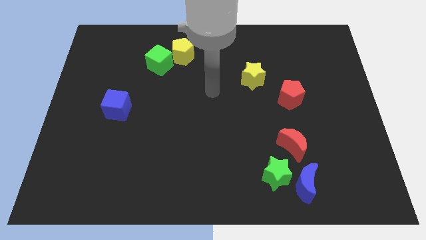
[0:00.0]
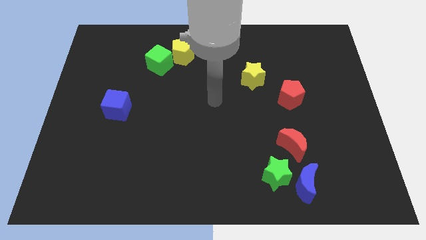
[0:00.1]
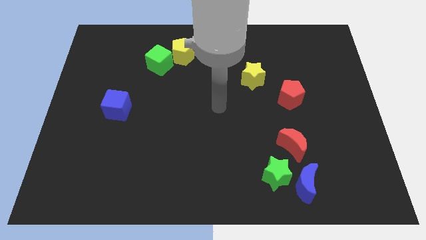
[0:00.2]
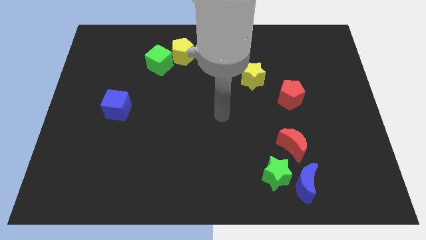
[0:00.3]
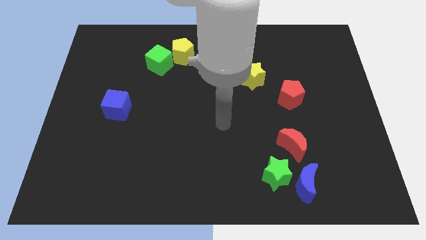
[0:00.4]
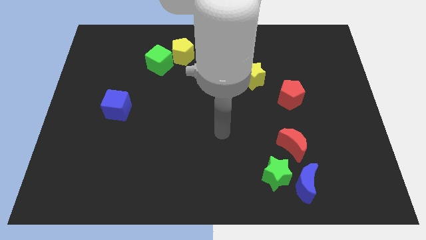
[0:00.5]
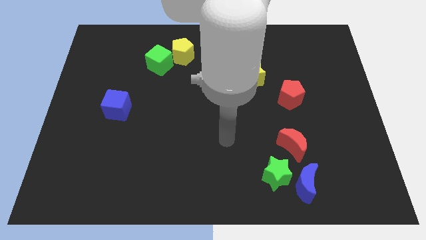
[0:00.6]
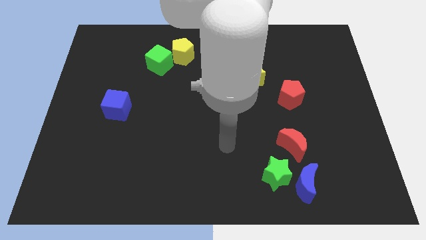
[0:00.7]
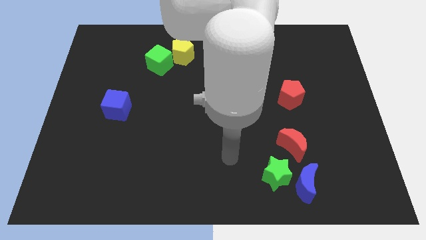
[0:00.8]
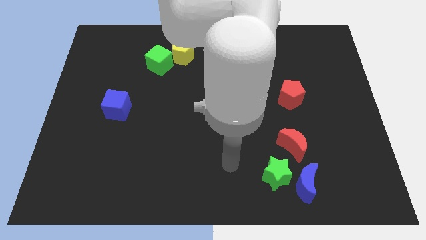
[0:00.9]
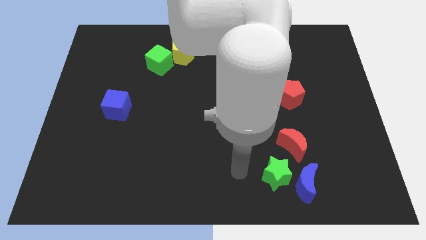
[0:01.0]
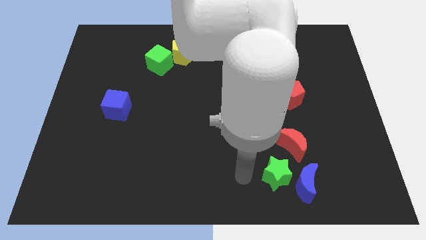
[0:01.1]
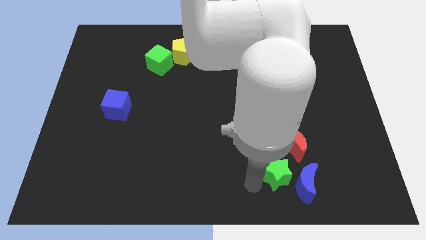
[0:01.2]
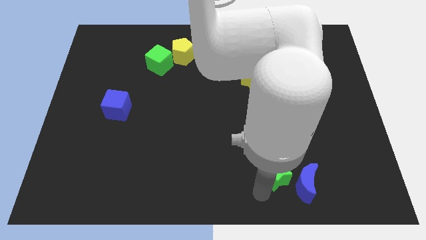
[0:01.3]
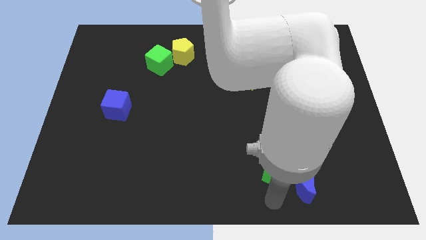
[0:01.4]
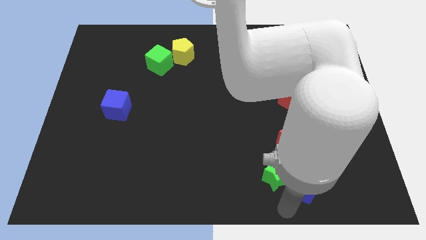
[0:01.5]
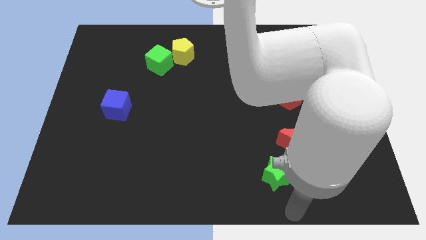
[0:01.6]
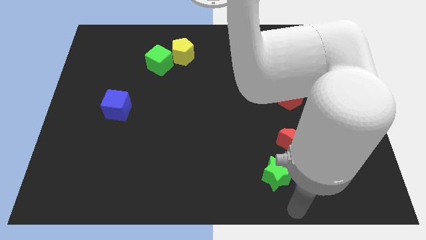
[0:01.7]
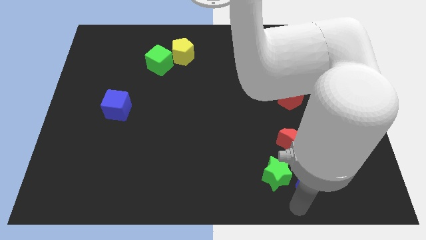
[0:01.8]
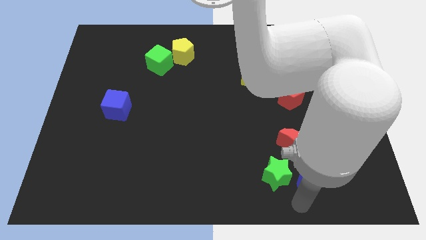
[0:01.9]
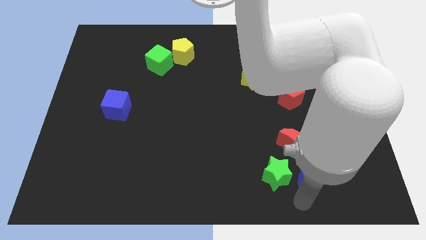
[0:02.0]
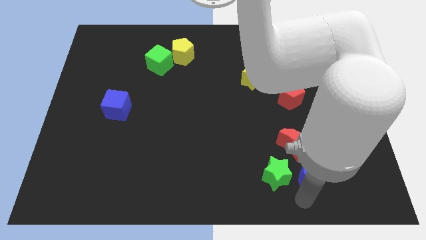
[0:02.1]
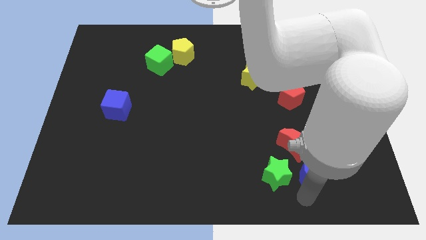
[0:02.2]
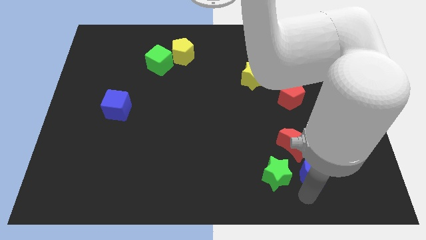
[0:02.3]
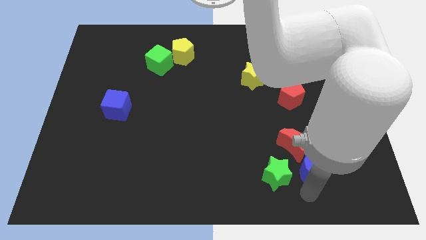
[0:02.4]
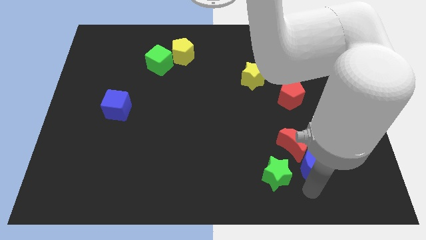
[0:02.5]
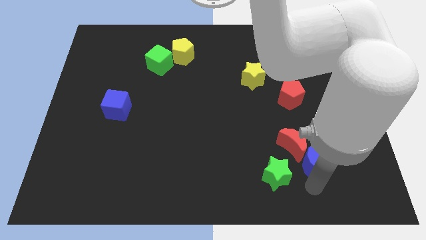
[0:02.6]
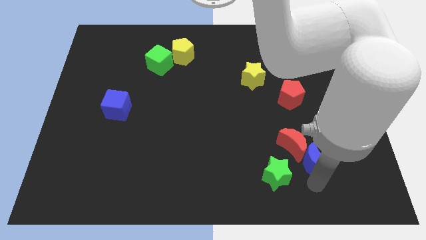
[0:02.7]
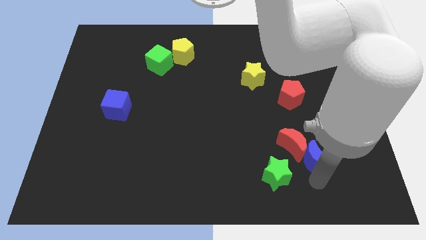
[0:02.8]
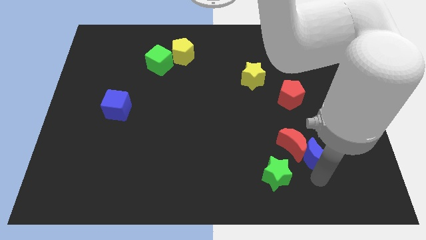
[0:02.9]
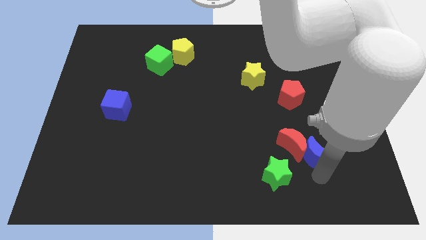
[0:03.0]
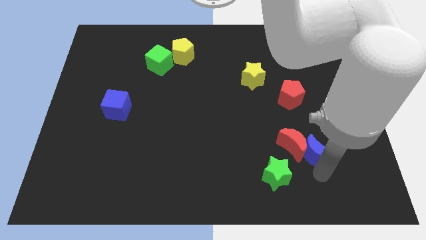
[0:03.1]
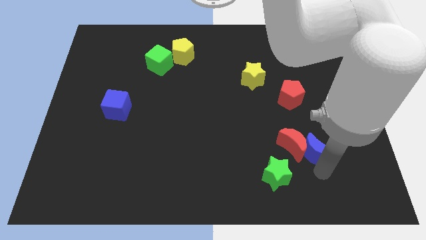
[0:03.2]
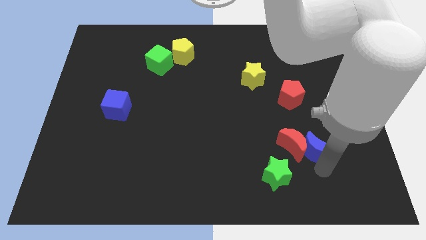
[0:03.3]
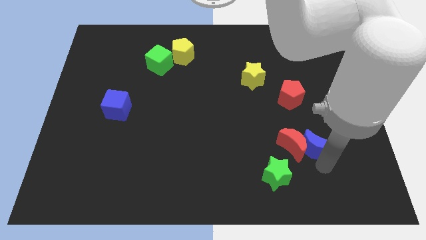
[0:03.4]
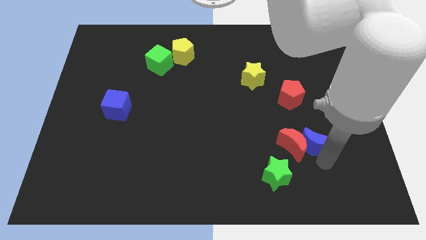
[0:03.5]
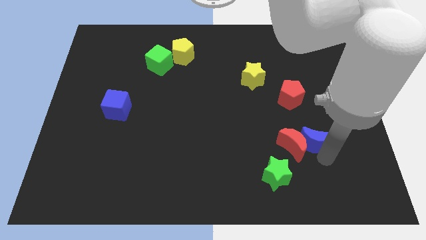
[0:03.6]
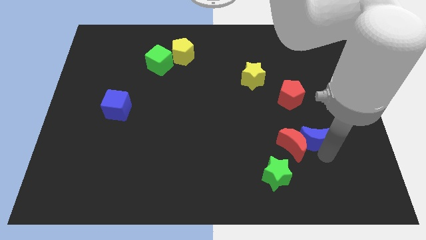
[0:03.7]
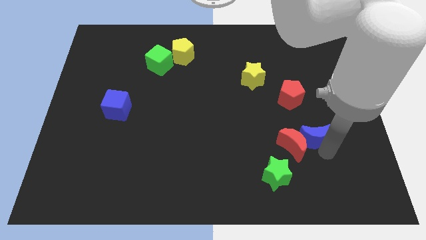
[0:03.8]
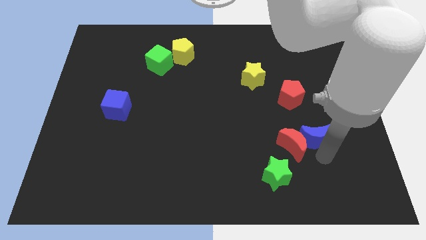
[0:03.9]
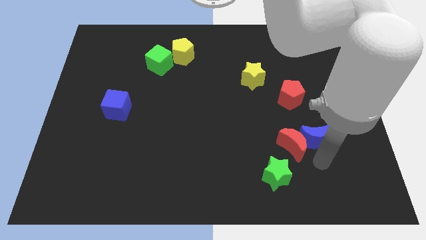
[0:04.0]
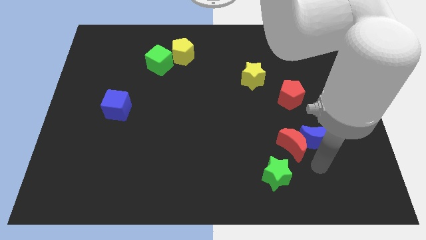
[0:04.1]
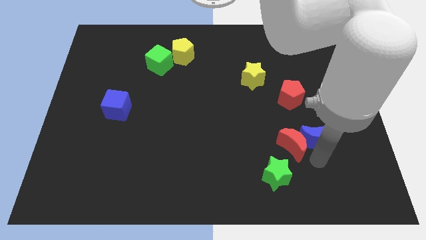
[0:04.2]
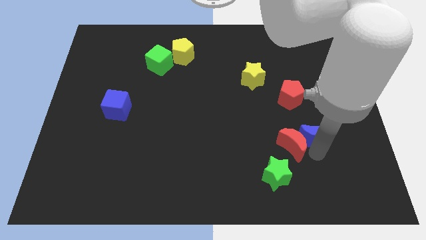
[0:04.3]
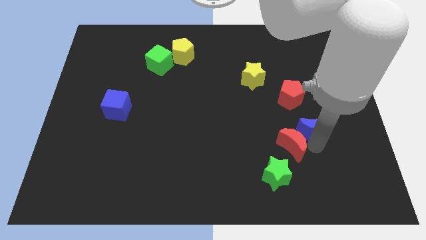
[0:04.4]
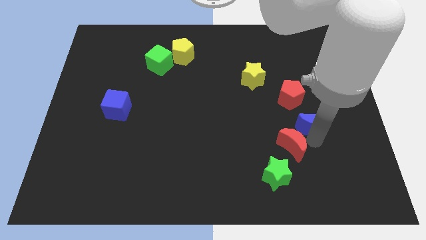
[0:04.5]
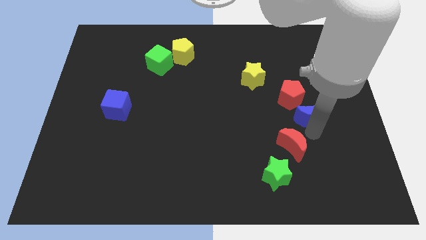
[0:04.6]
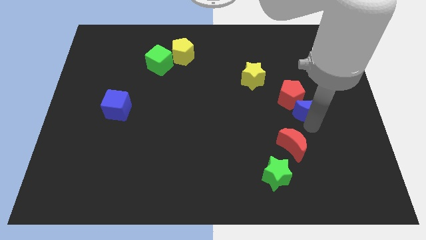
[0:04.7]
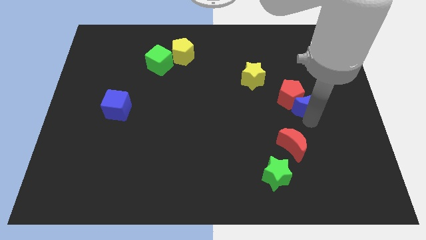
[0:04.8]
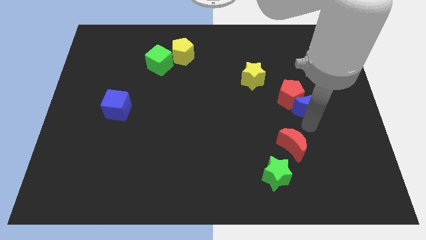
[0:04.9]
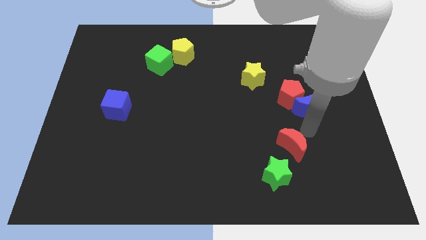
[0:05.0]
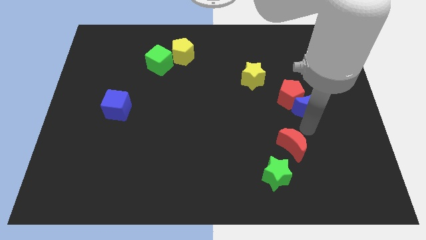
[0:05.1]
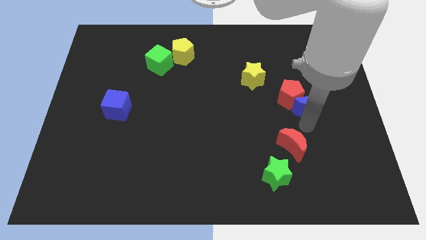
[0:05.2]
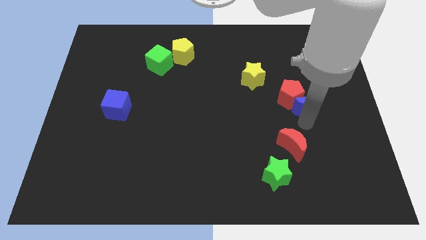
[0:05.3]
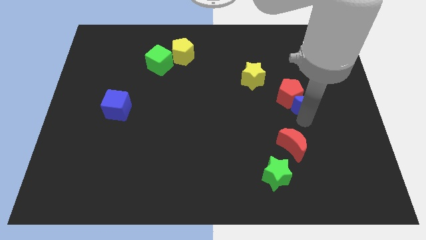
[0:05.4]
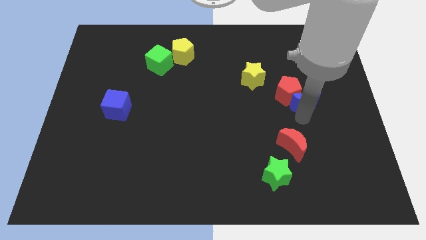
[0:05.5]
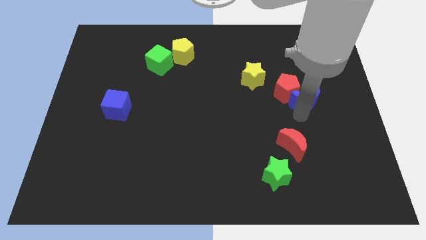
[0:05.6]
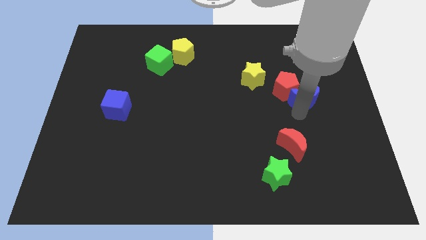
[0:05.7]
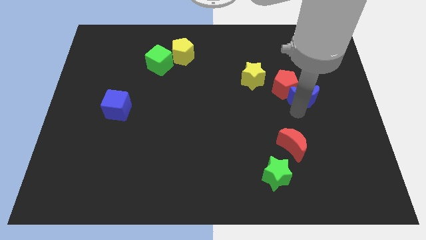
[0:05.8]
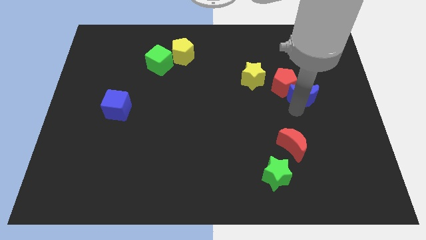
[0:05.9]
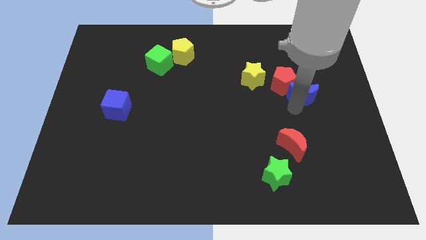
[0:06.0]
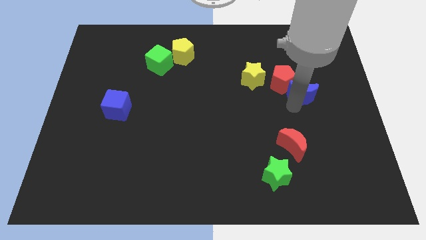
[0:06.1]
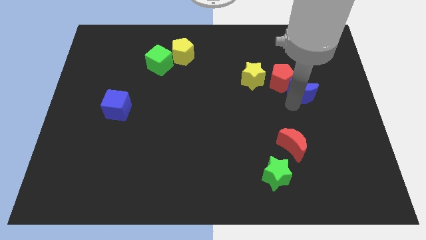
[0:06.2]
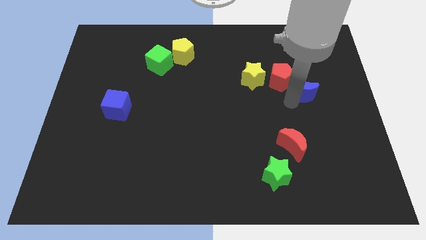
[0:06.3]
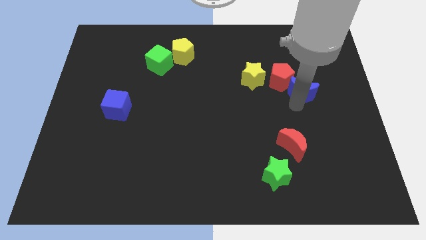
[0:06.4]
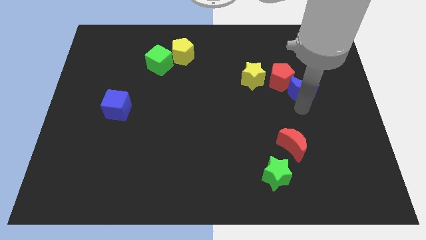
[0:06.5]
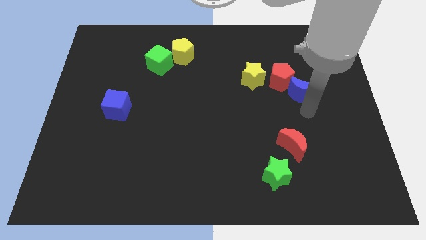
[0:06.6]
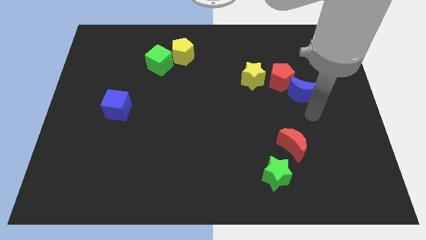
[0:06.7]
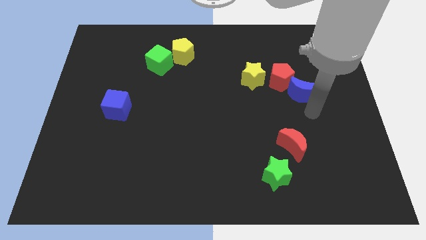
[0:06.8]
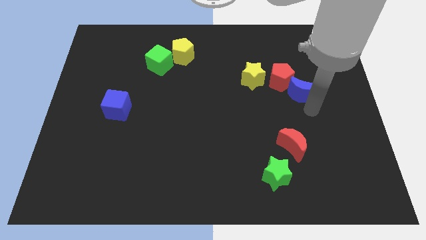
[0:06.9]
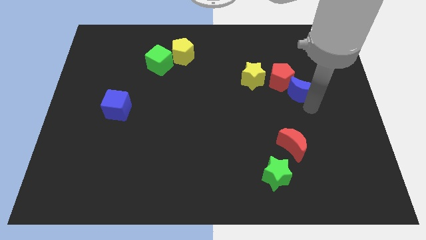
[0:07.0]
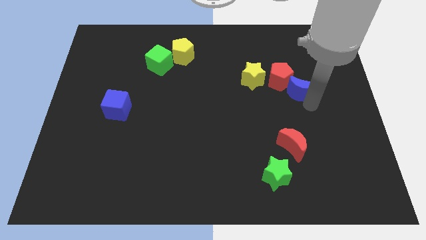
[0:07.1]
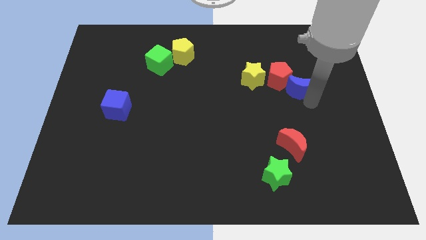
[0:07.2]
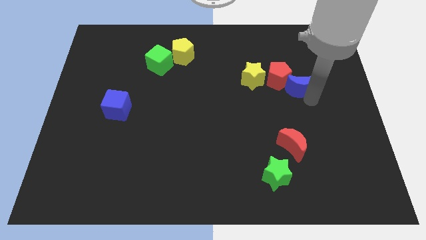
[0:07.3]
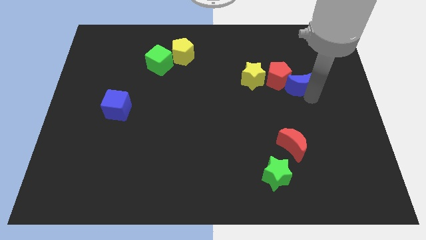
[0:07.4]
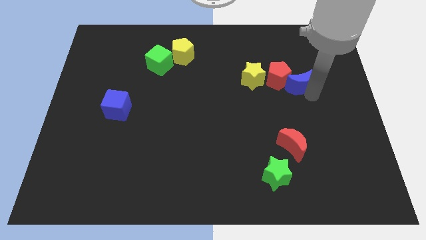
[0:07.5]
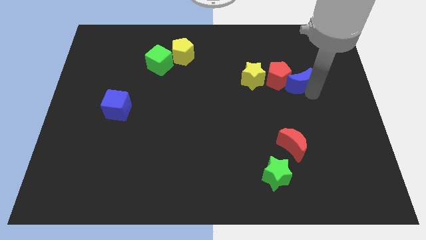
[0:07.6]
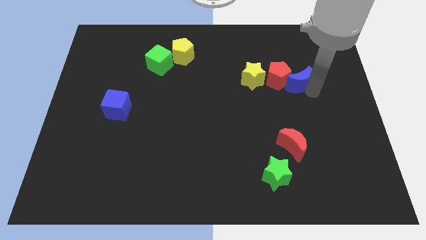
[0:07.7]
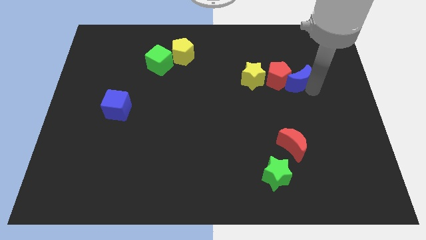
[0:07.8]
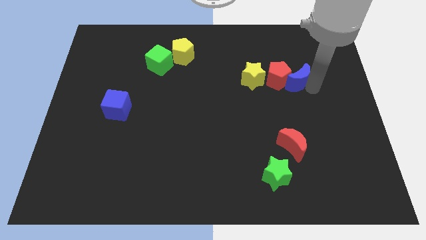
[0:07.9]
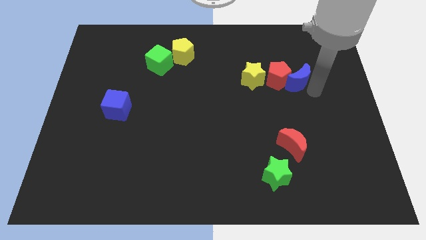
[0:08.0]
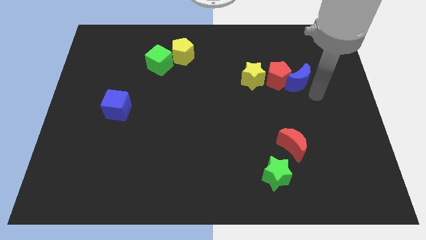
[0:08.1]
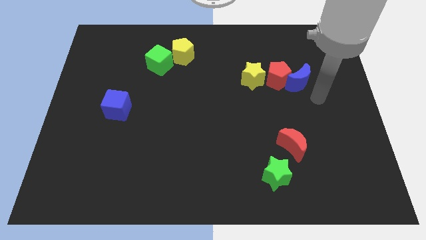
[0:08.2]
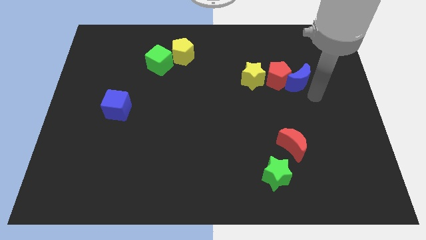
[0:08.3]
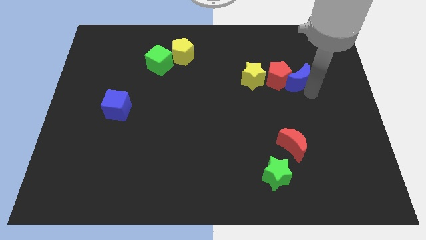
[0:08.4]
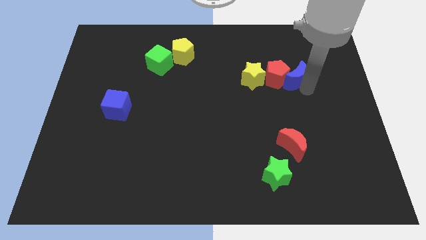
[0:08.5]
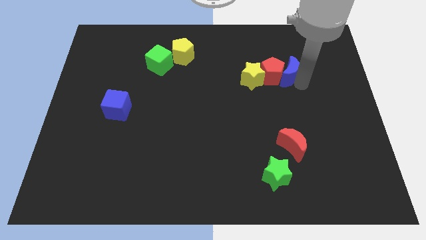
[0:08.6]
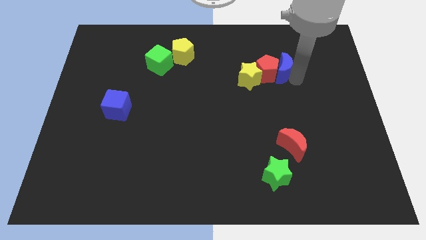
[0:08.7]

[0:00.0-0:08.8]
put the blue moon to the top right of the yellow star
